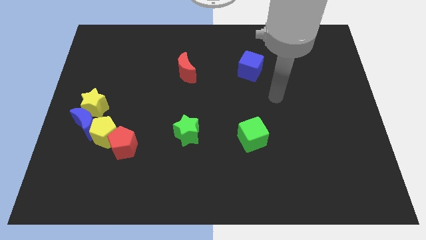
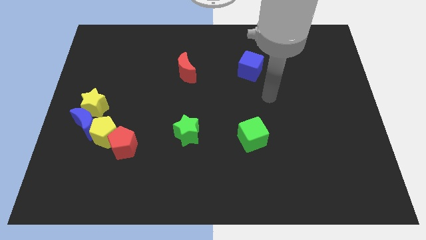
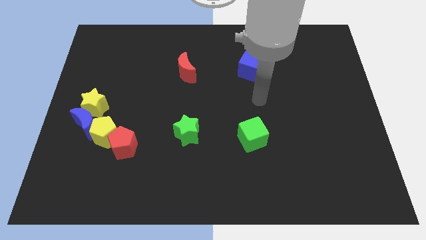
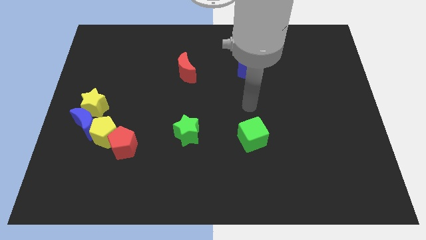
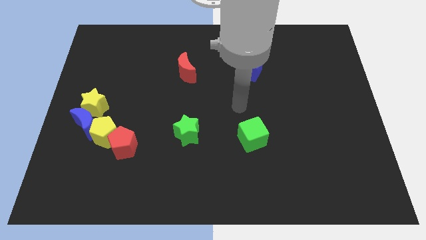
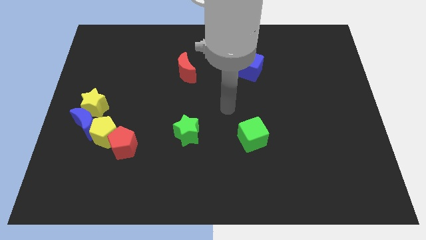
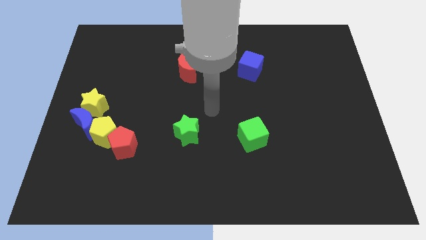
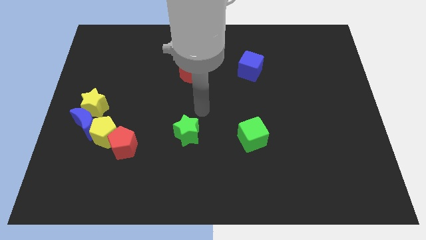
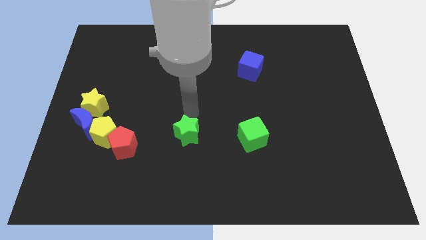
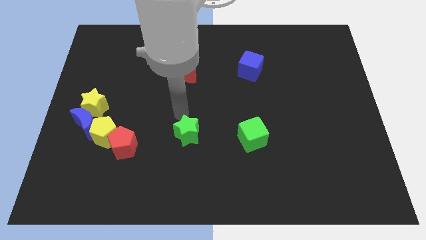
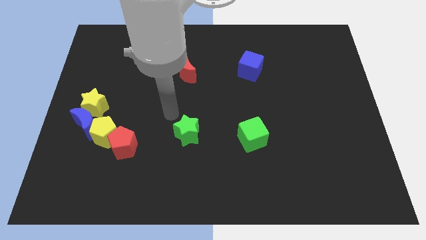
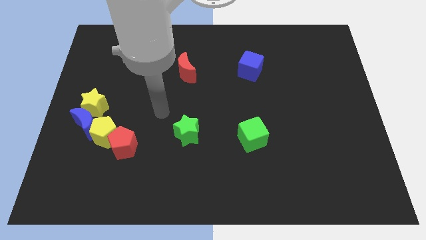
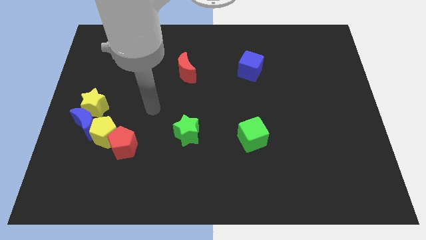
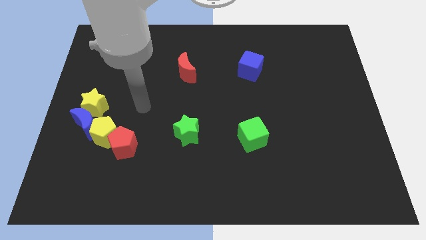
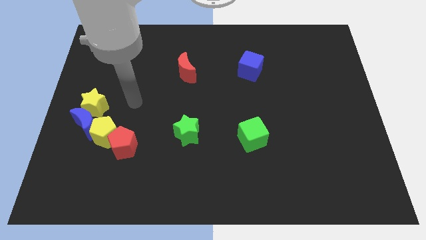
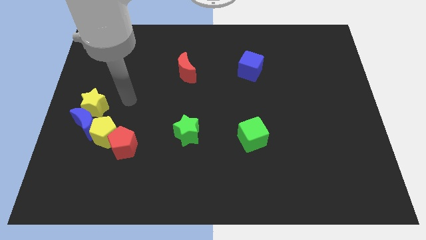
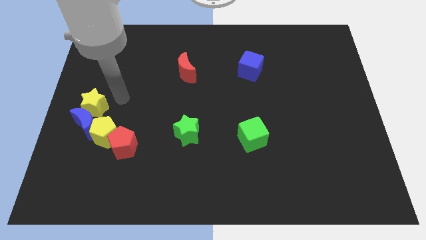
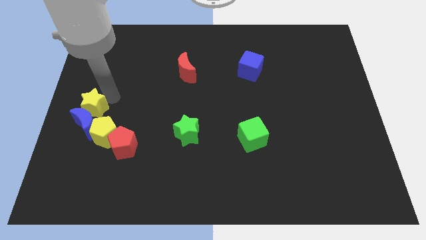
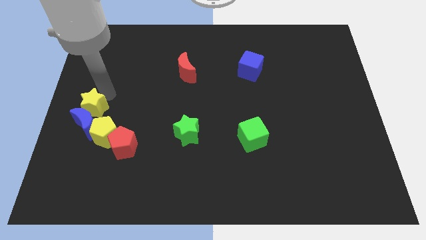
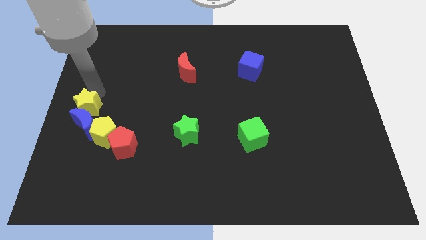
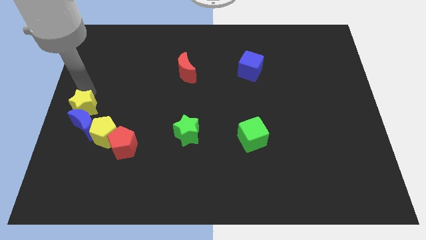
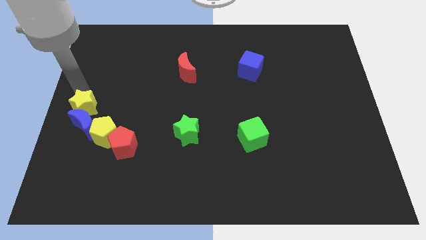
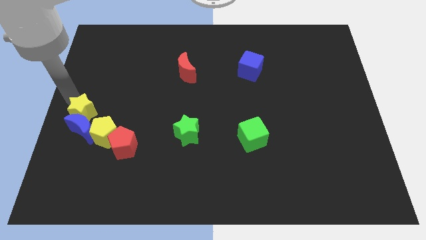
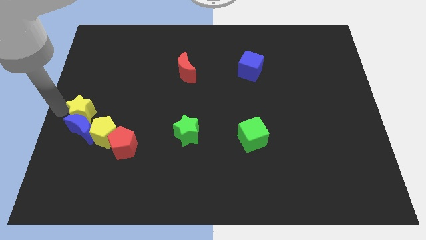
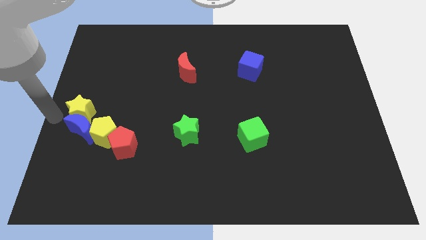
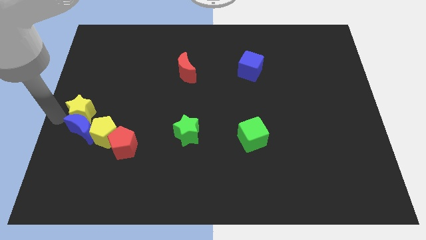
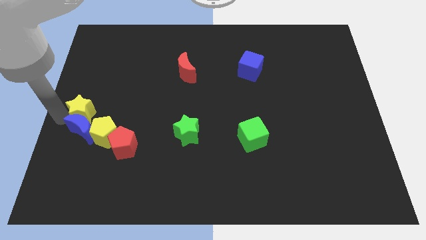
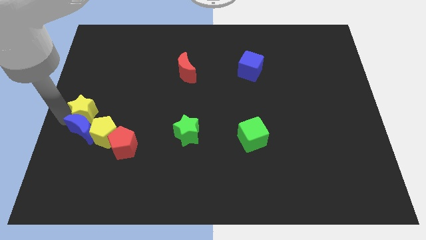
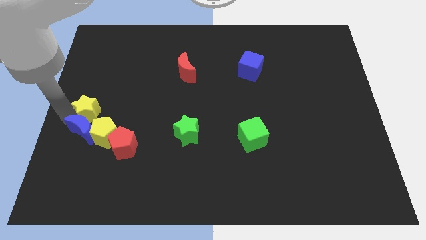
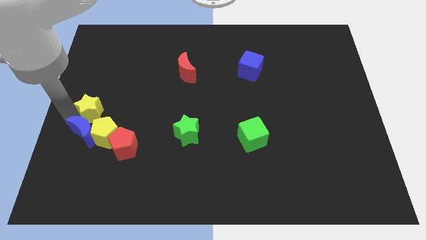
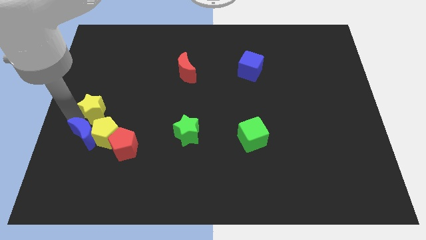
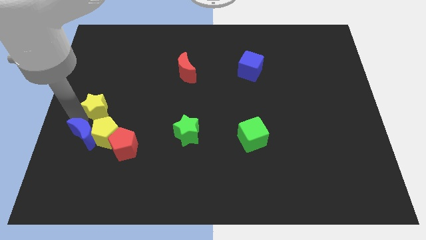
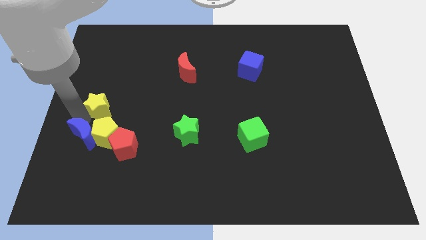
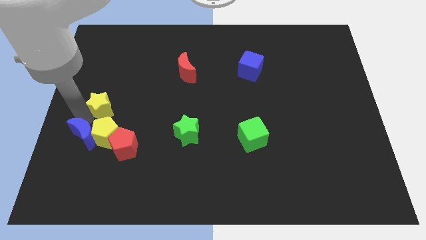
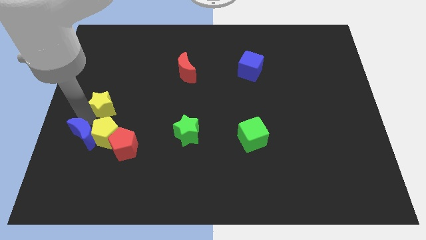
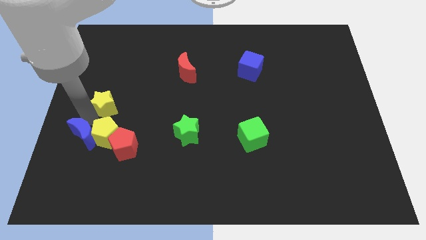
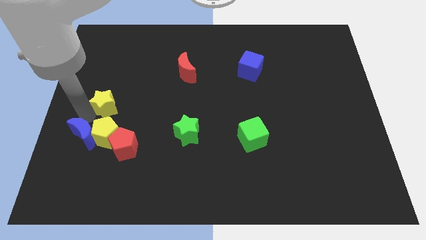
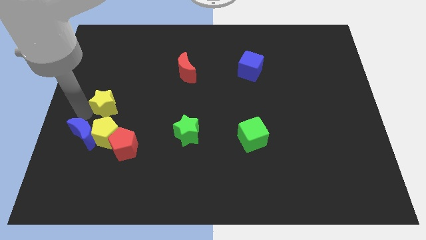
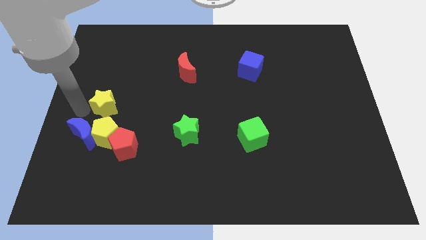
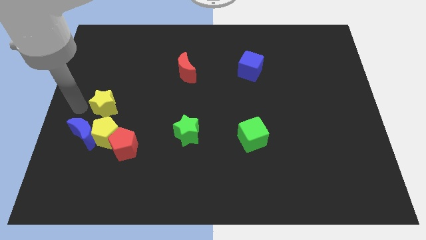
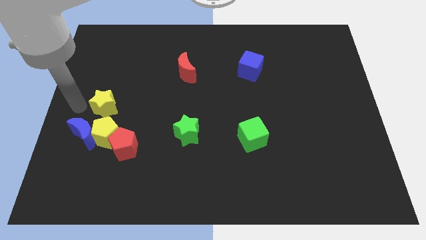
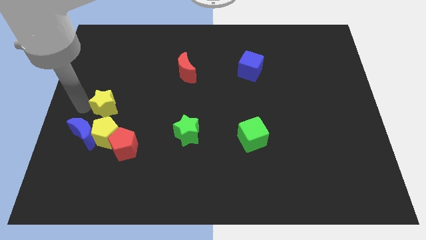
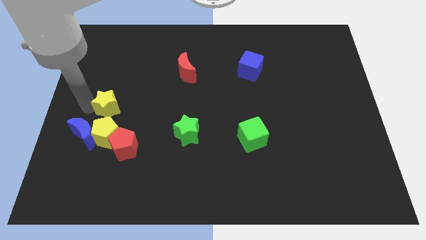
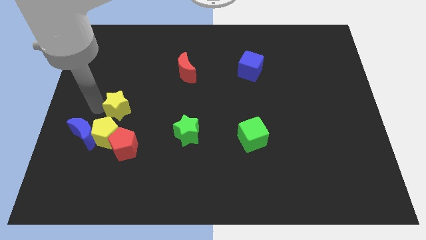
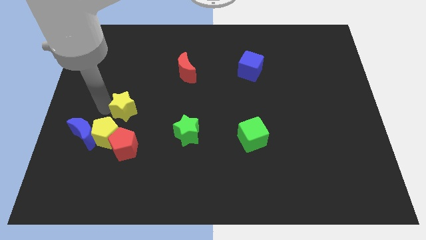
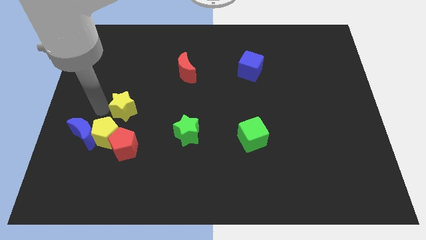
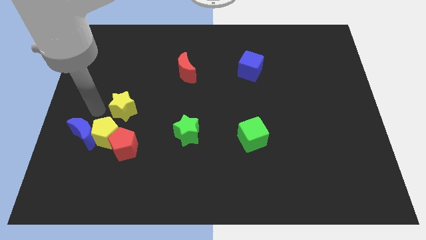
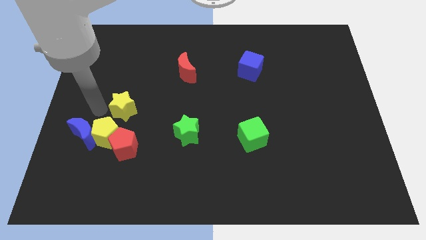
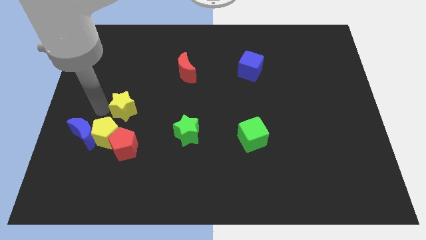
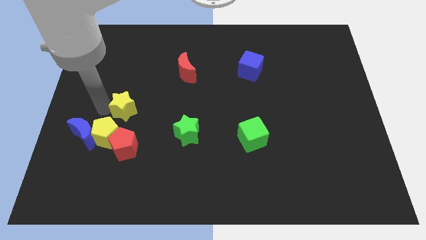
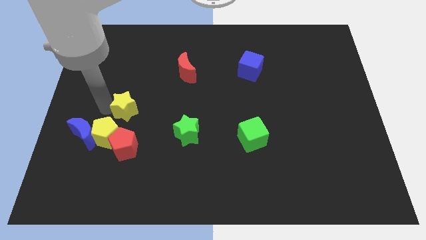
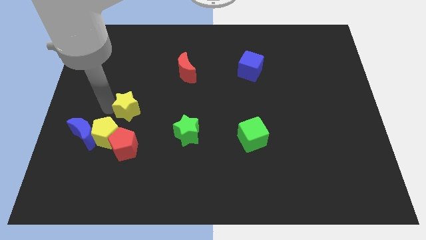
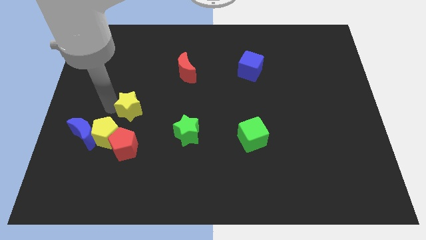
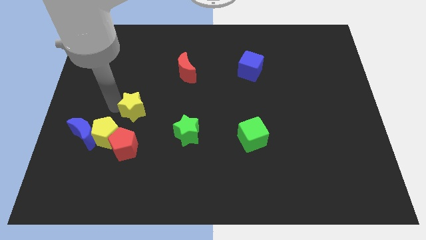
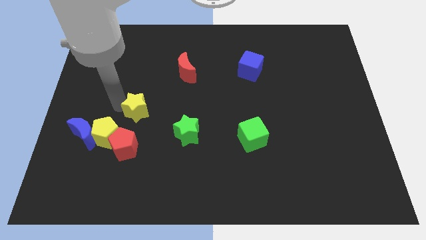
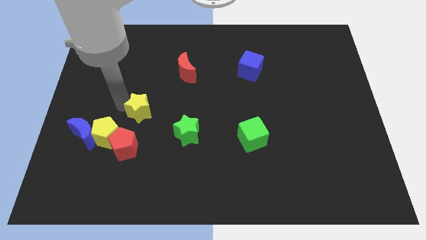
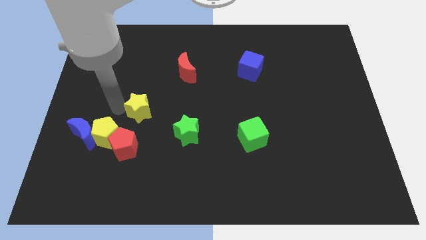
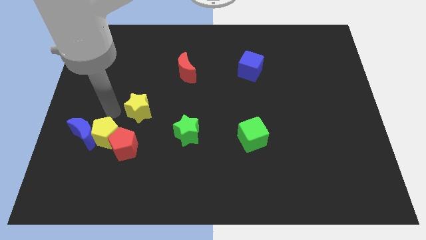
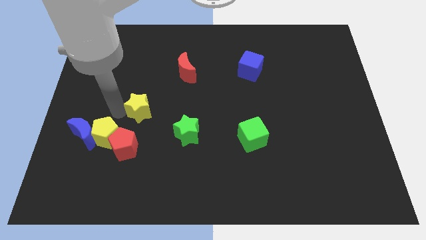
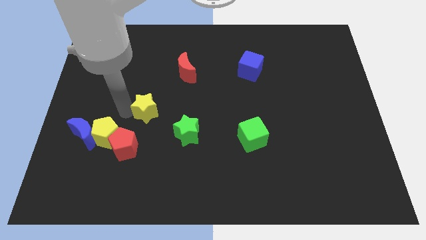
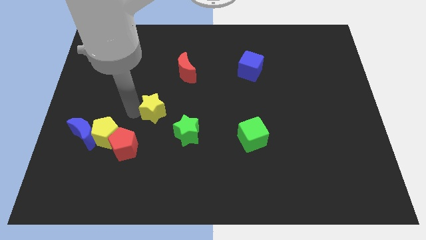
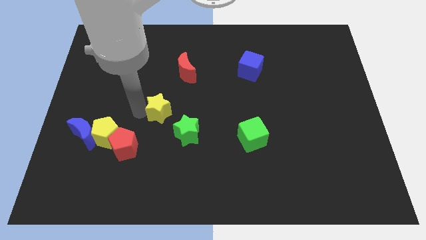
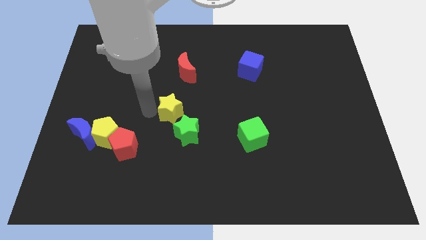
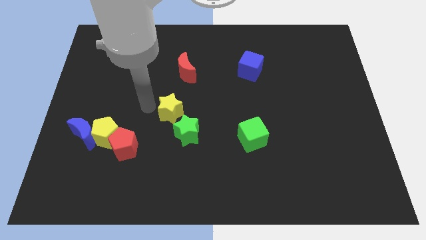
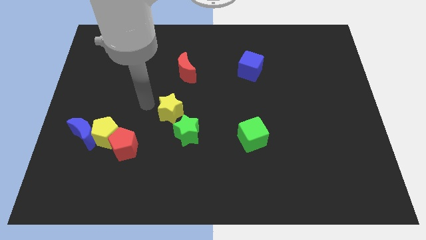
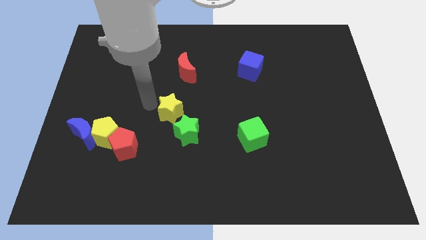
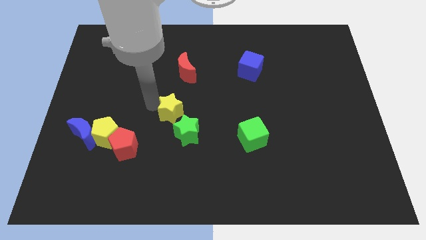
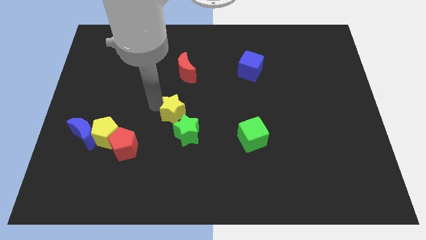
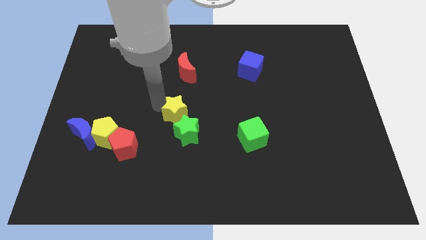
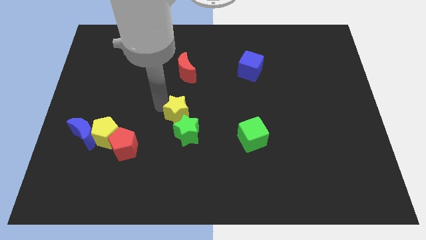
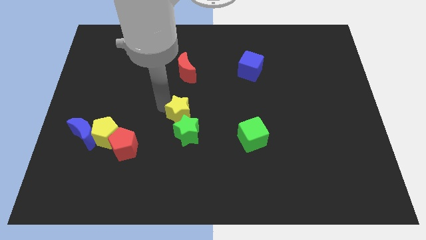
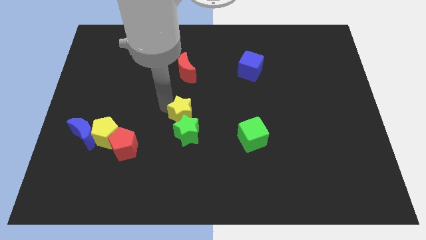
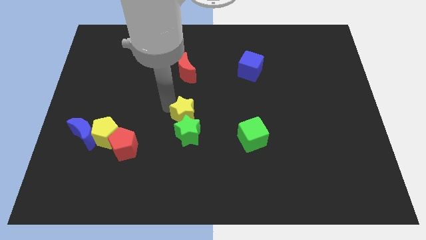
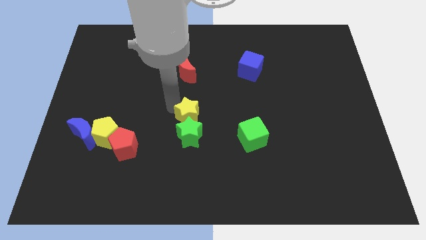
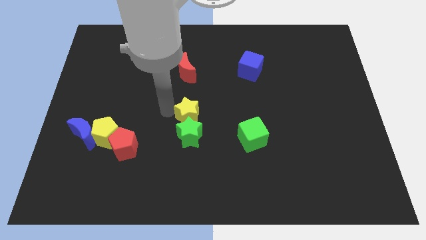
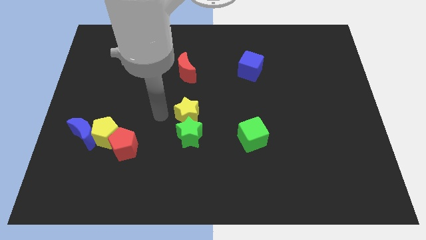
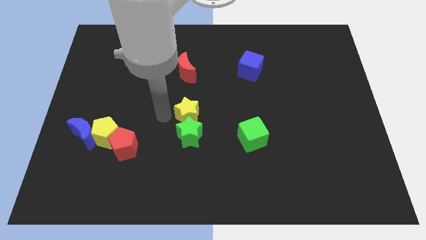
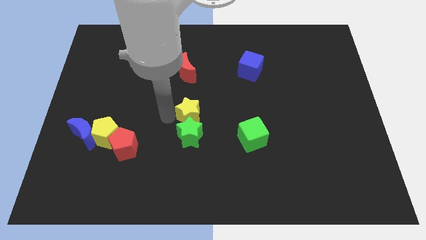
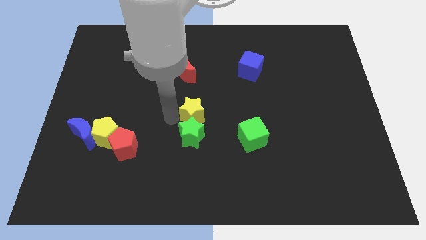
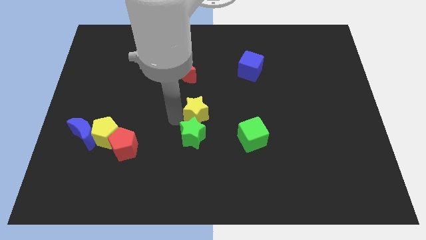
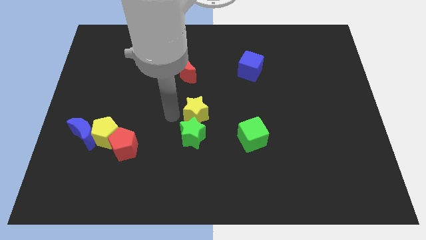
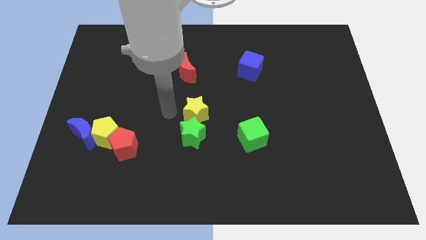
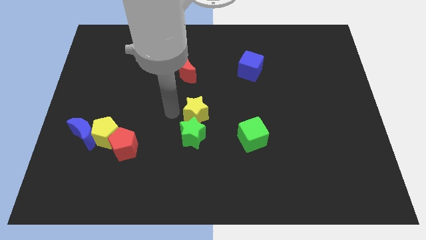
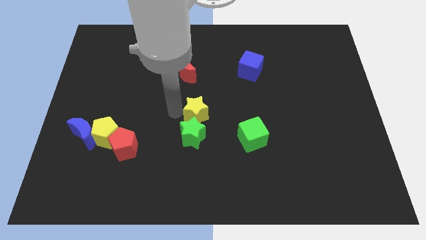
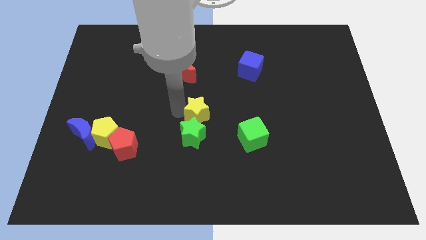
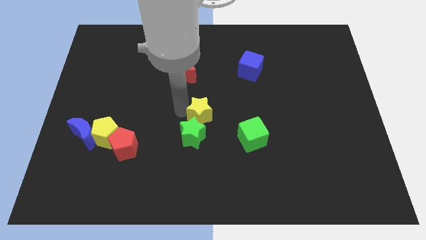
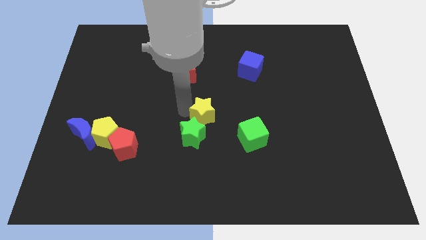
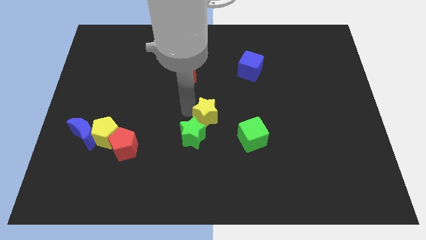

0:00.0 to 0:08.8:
push the yellow star to the top left of the green cube
